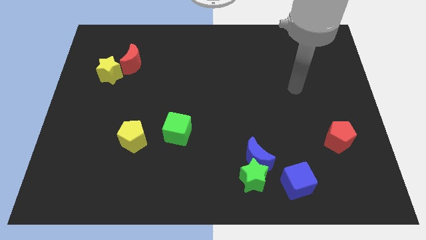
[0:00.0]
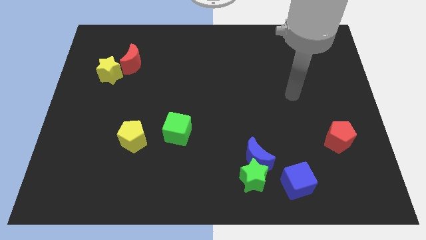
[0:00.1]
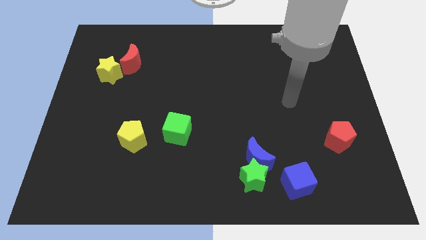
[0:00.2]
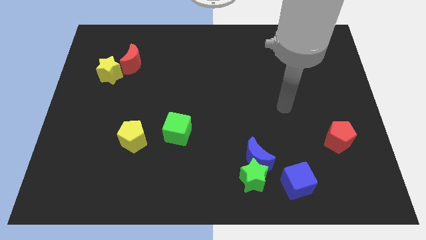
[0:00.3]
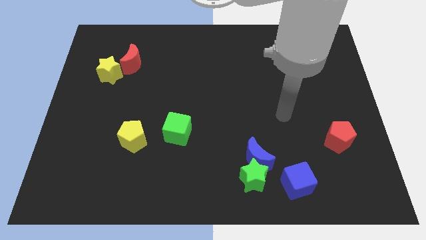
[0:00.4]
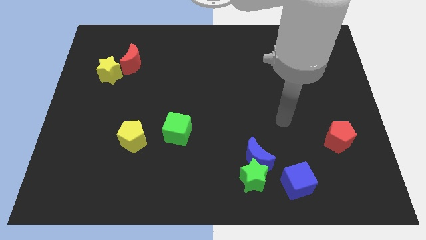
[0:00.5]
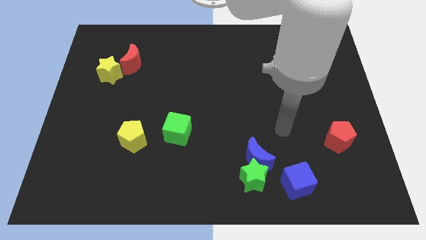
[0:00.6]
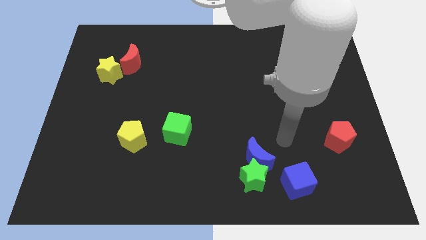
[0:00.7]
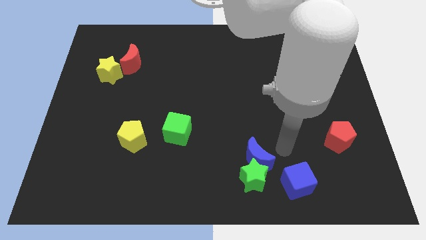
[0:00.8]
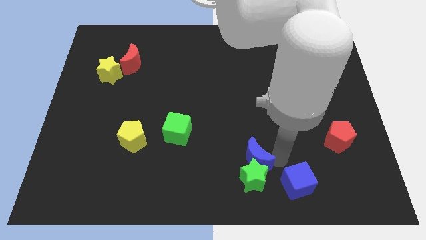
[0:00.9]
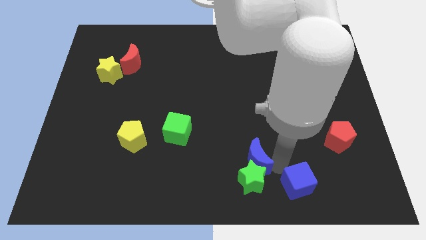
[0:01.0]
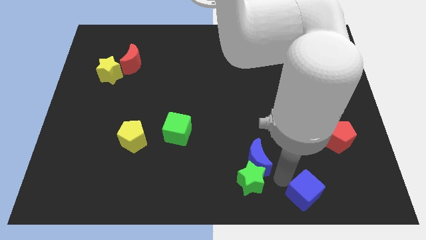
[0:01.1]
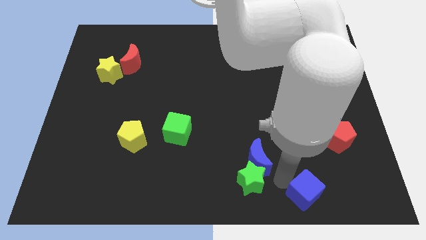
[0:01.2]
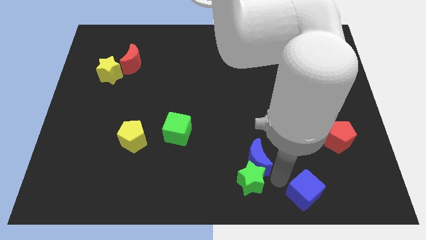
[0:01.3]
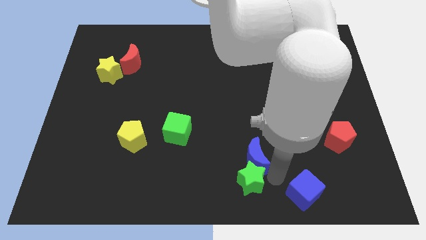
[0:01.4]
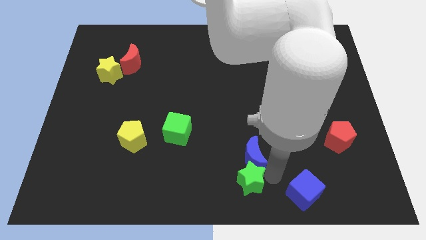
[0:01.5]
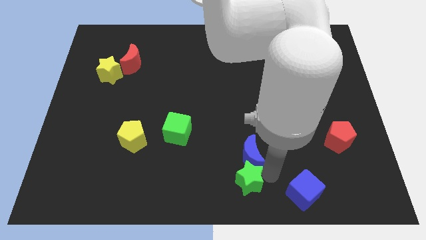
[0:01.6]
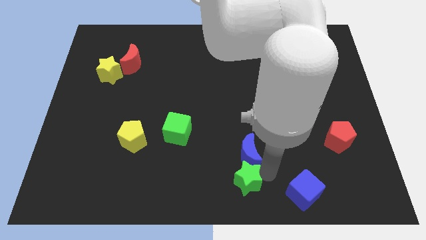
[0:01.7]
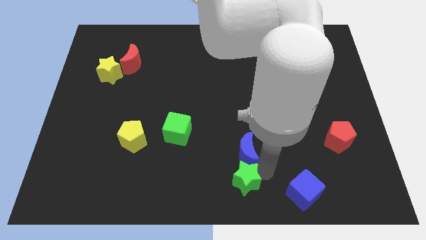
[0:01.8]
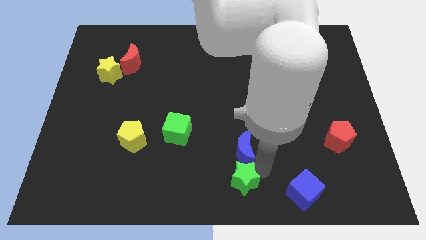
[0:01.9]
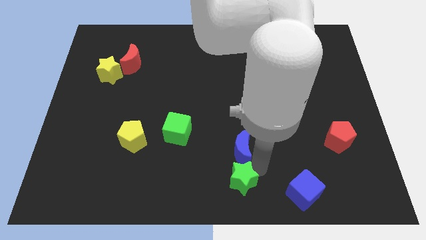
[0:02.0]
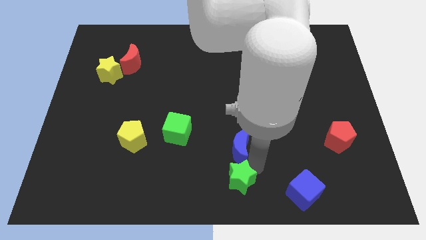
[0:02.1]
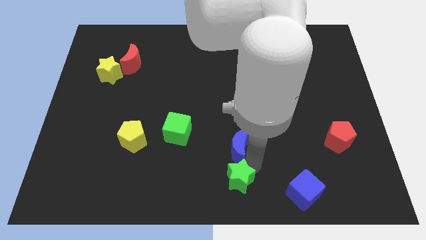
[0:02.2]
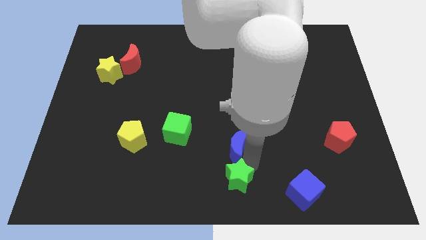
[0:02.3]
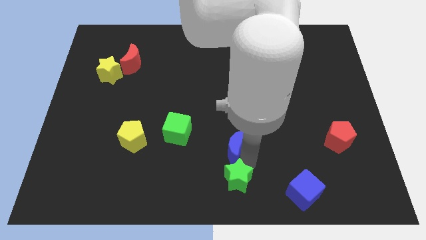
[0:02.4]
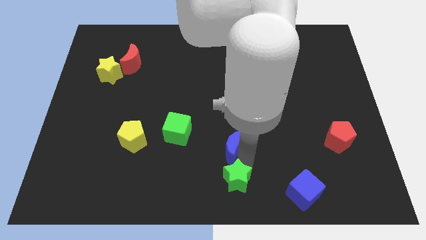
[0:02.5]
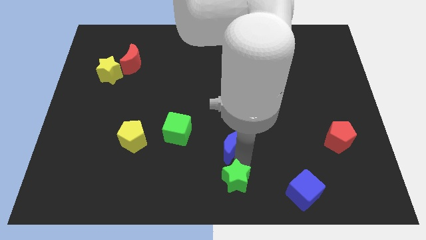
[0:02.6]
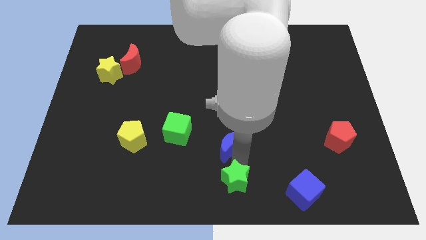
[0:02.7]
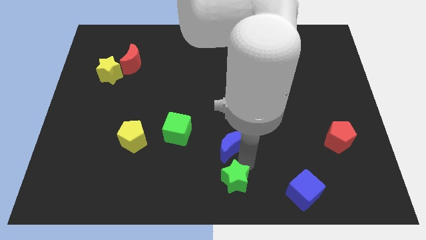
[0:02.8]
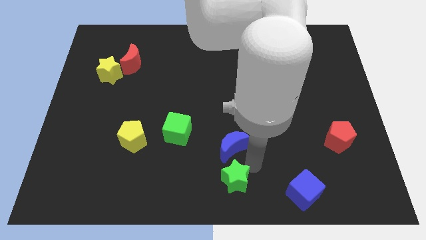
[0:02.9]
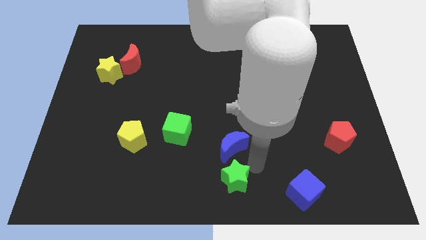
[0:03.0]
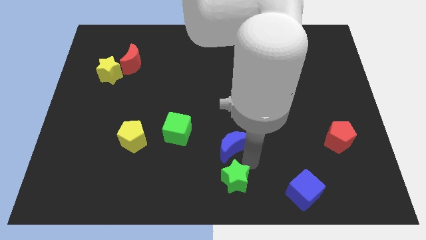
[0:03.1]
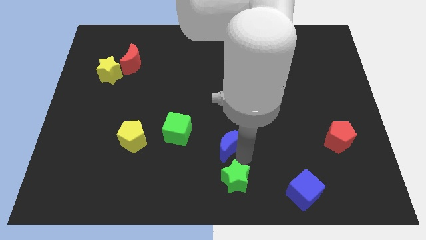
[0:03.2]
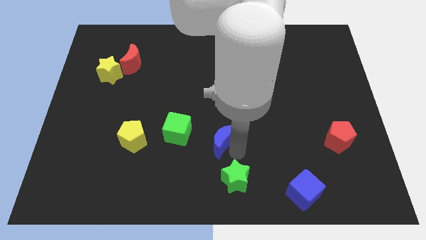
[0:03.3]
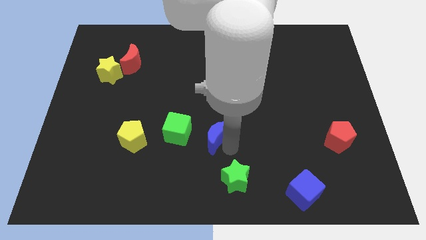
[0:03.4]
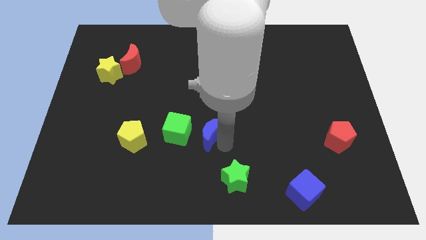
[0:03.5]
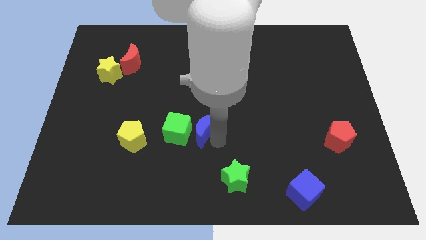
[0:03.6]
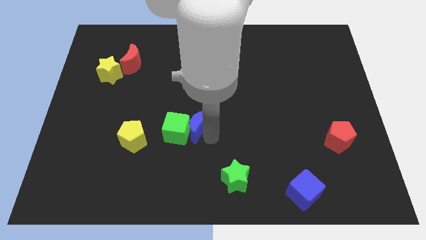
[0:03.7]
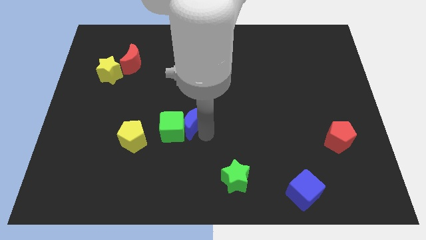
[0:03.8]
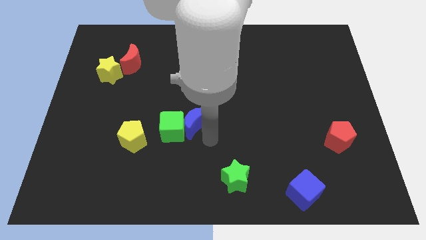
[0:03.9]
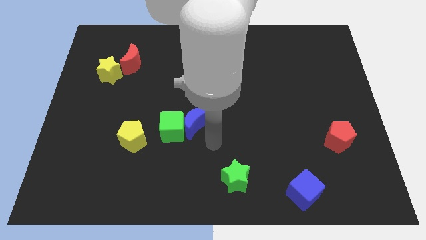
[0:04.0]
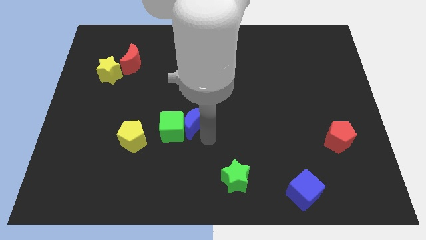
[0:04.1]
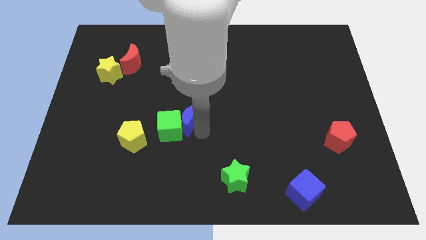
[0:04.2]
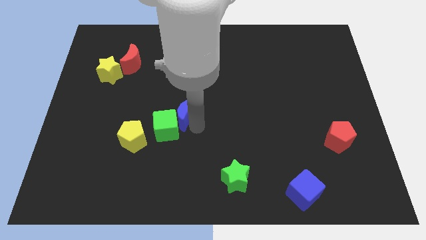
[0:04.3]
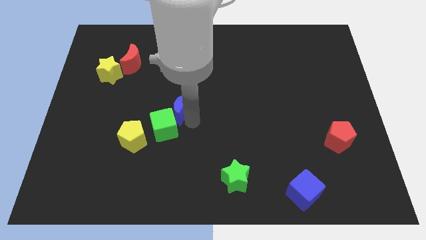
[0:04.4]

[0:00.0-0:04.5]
move the blue moon upwards and left

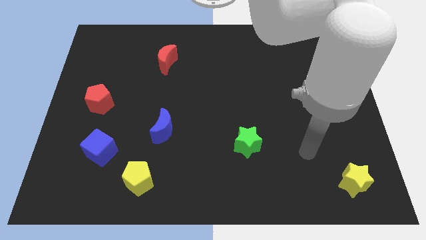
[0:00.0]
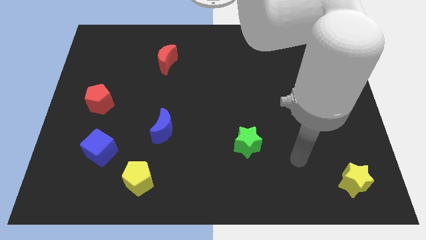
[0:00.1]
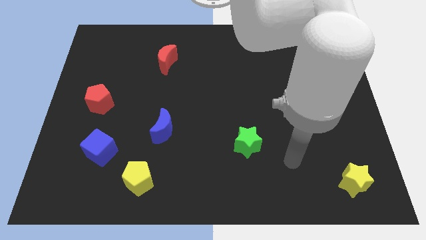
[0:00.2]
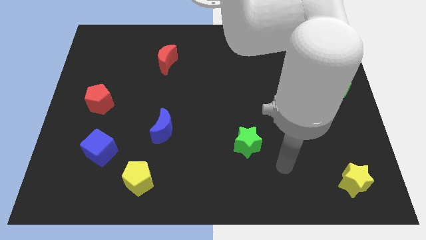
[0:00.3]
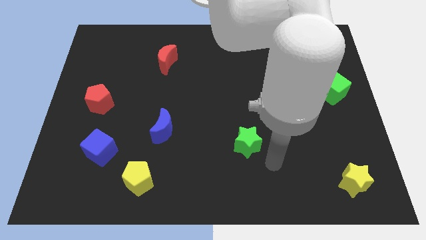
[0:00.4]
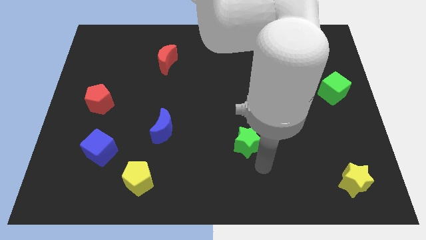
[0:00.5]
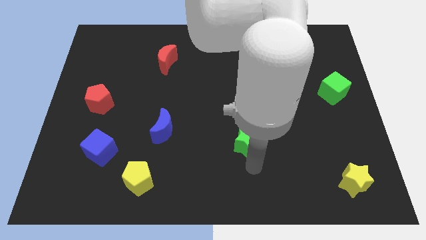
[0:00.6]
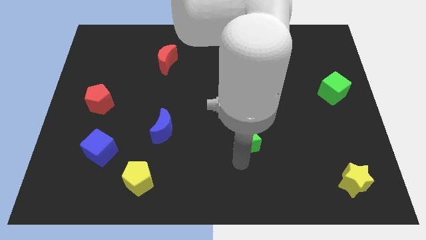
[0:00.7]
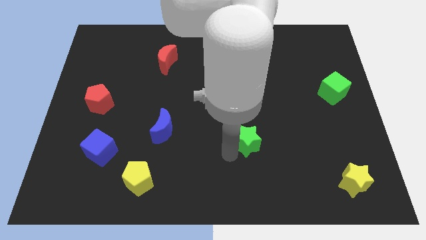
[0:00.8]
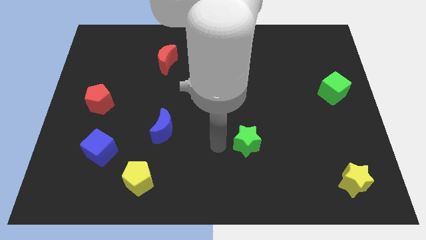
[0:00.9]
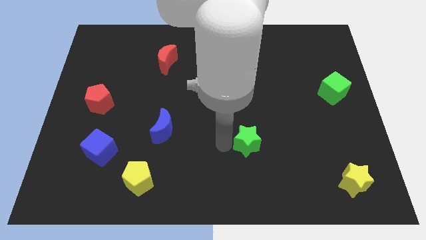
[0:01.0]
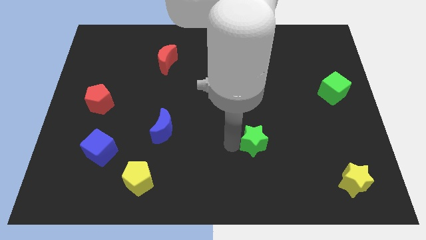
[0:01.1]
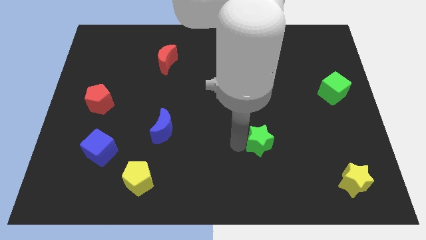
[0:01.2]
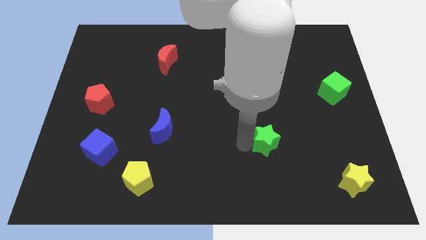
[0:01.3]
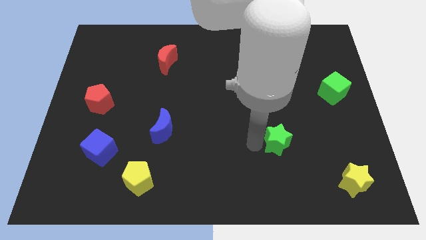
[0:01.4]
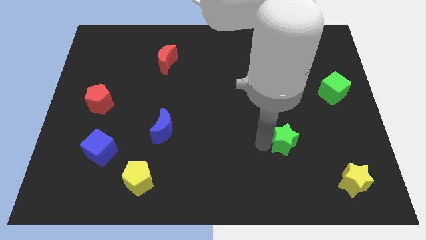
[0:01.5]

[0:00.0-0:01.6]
slide the green star a bit right

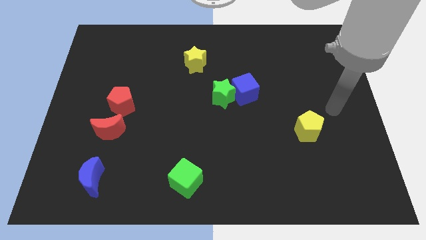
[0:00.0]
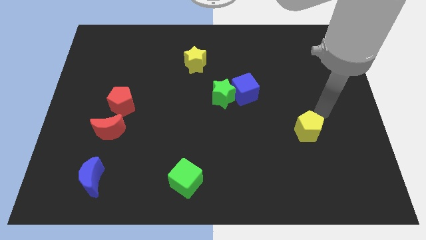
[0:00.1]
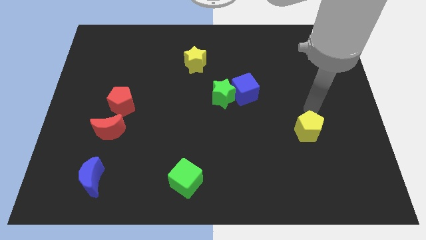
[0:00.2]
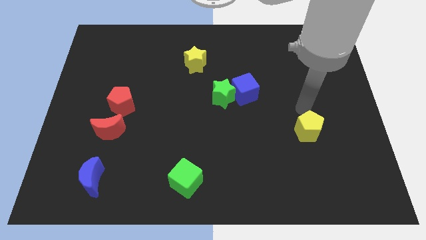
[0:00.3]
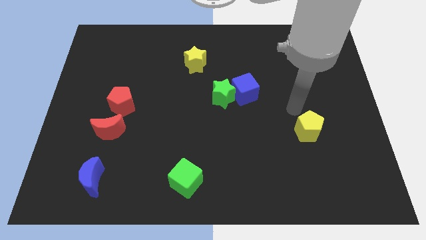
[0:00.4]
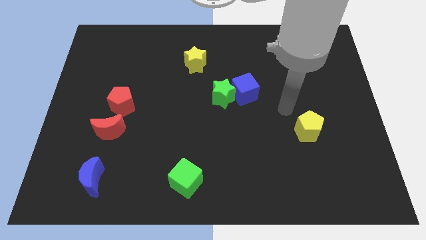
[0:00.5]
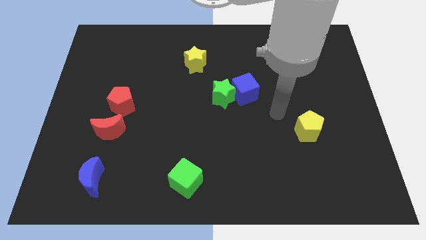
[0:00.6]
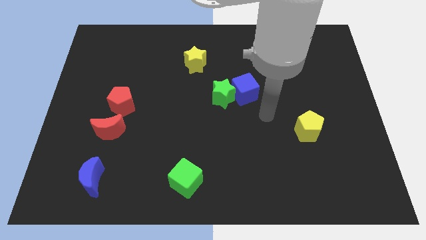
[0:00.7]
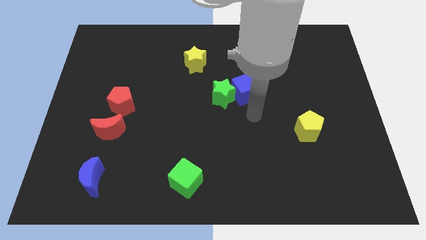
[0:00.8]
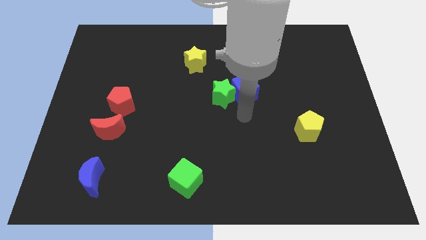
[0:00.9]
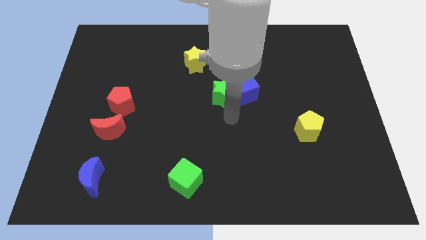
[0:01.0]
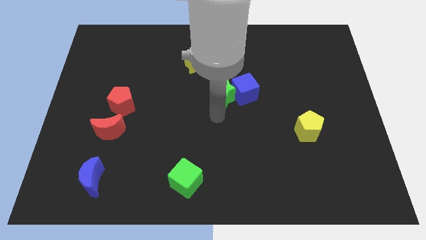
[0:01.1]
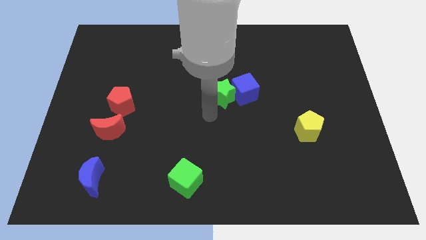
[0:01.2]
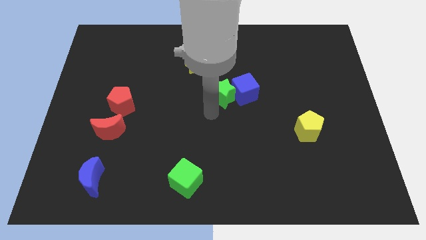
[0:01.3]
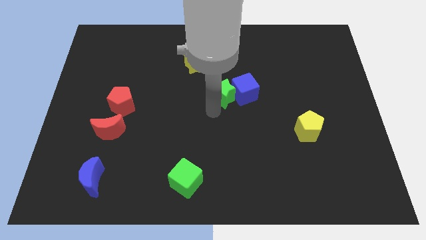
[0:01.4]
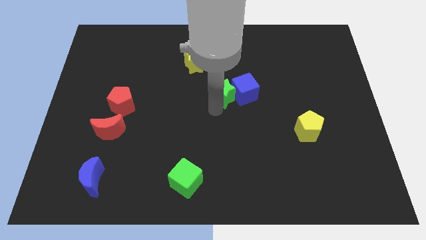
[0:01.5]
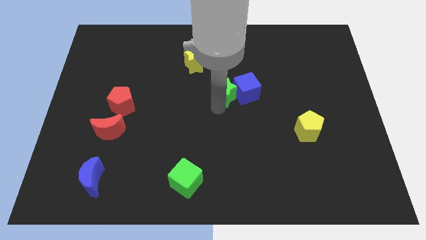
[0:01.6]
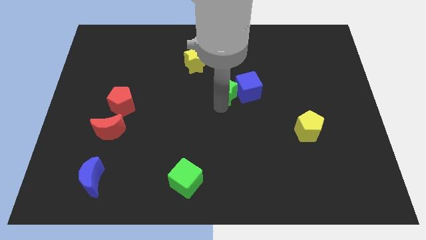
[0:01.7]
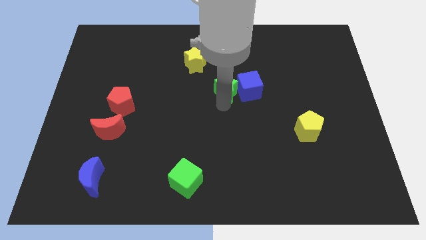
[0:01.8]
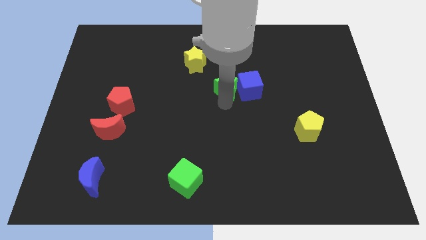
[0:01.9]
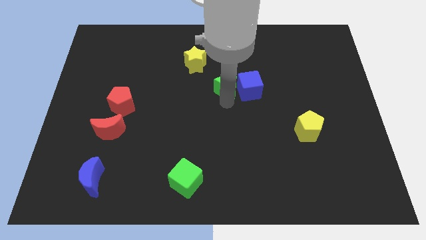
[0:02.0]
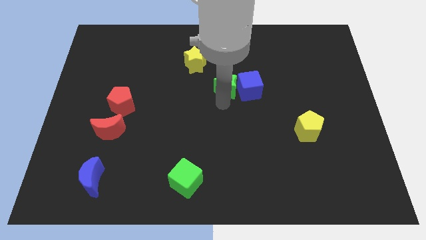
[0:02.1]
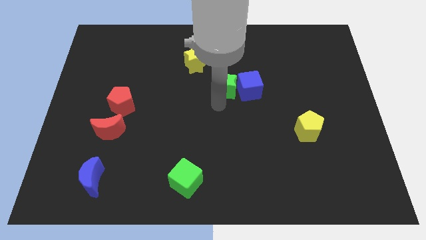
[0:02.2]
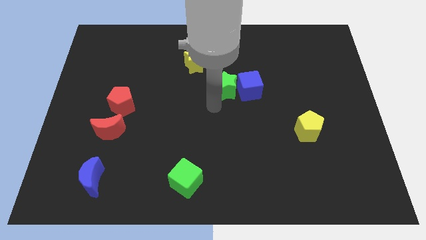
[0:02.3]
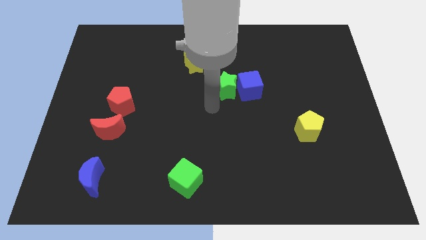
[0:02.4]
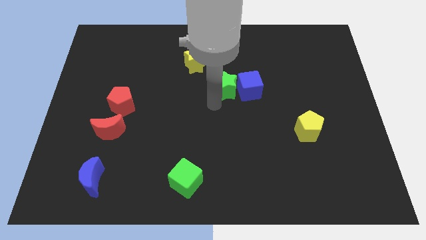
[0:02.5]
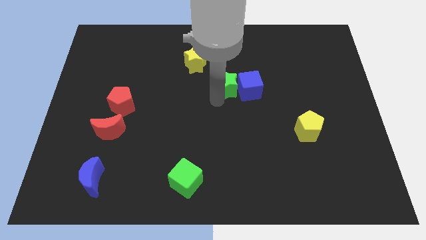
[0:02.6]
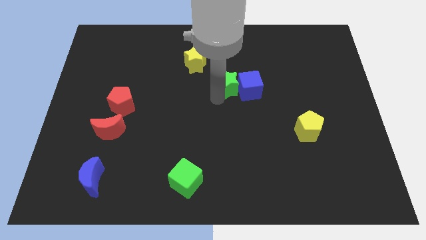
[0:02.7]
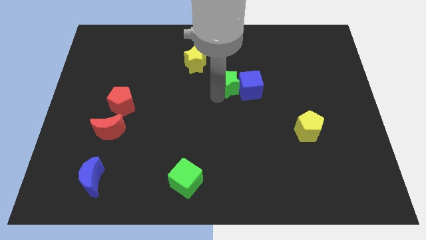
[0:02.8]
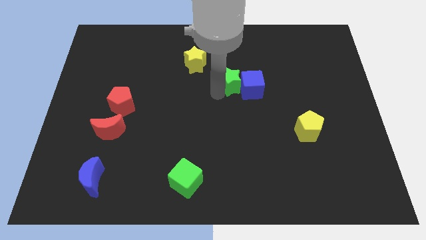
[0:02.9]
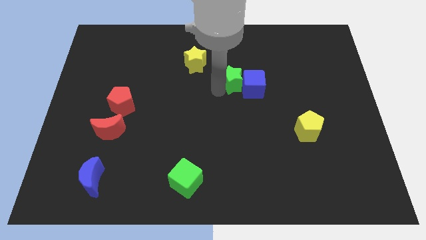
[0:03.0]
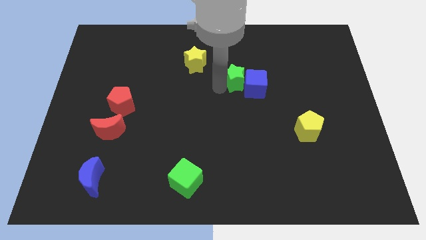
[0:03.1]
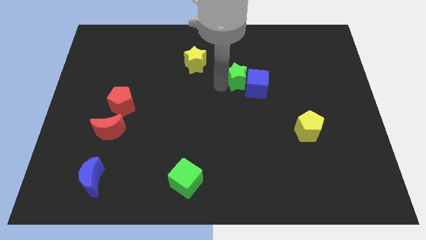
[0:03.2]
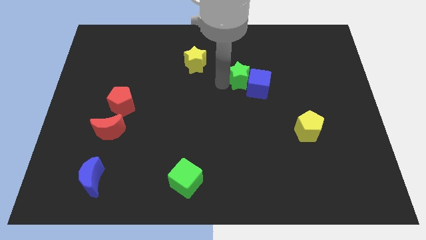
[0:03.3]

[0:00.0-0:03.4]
move the green star diagonally upwards and to the right a little bit
